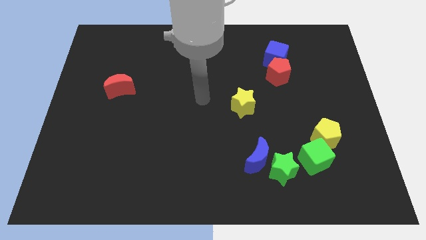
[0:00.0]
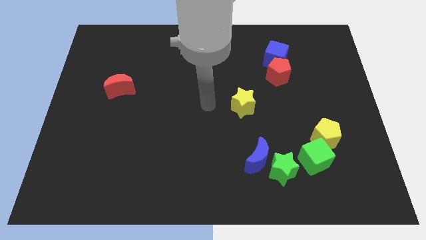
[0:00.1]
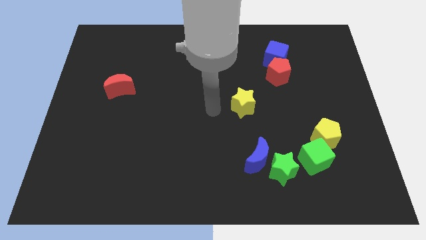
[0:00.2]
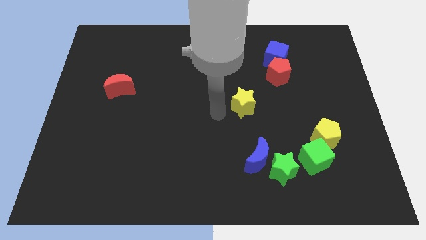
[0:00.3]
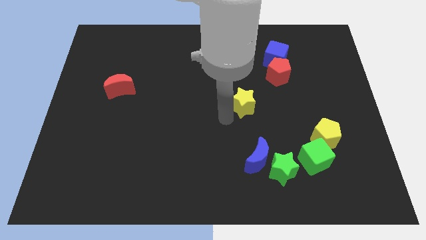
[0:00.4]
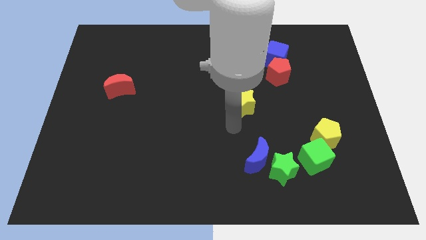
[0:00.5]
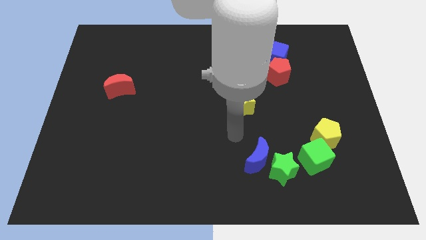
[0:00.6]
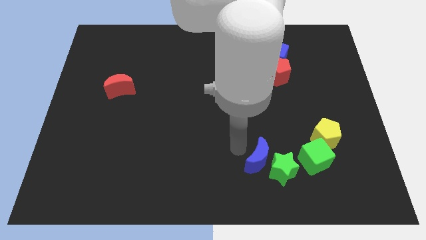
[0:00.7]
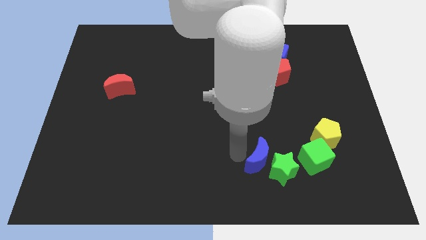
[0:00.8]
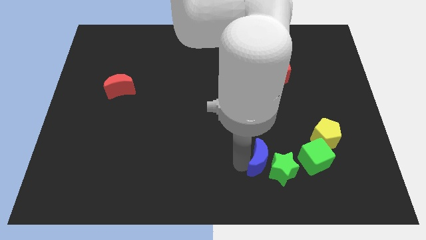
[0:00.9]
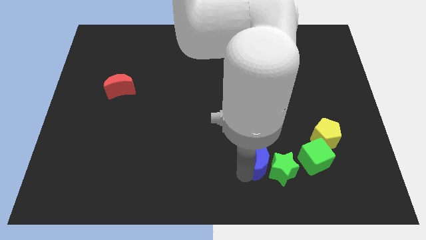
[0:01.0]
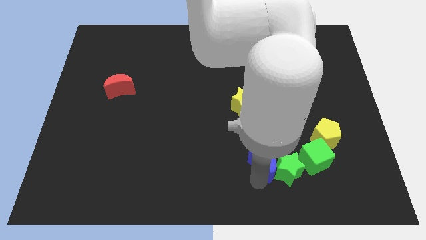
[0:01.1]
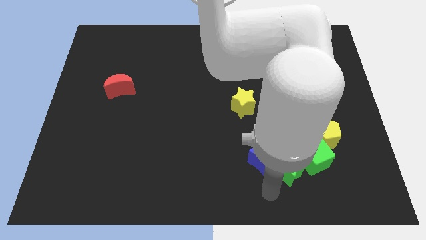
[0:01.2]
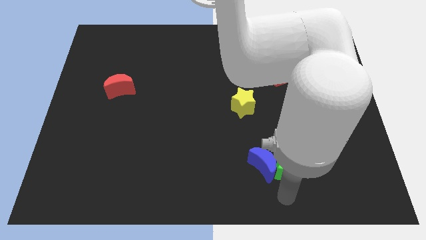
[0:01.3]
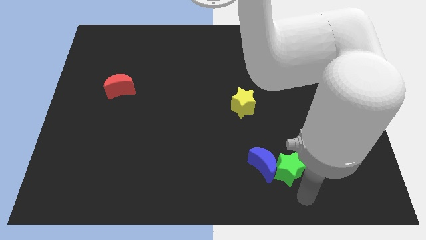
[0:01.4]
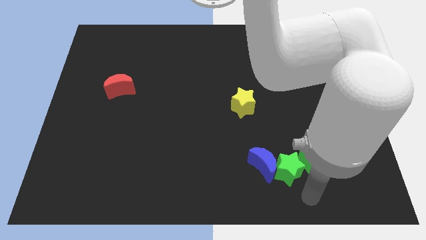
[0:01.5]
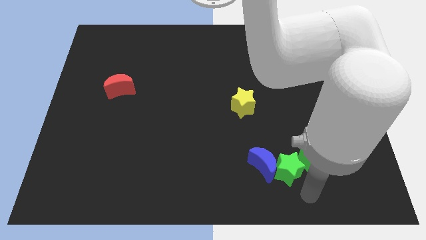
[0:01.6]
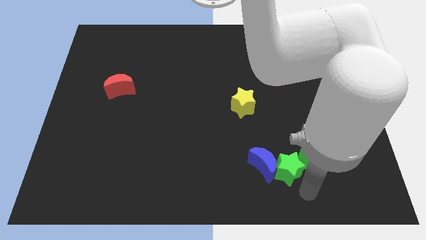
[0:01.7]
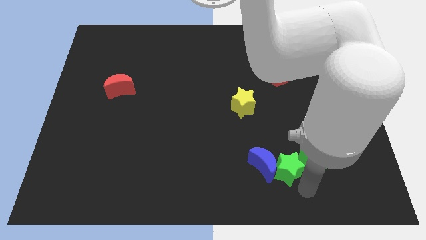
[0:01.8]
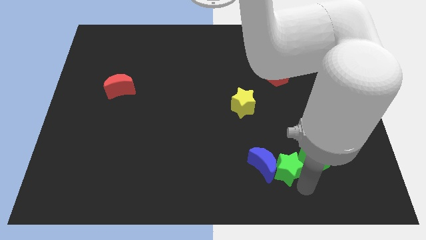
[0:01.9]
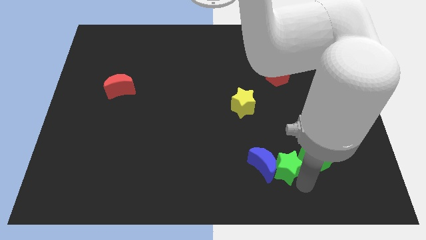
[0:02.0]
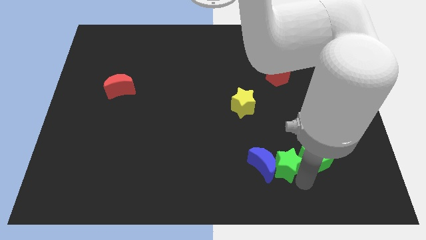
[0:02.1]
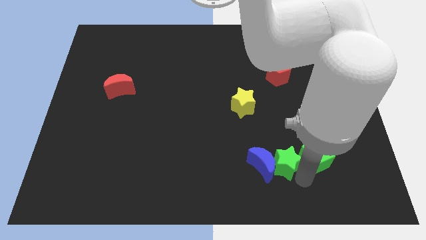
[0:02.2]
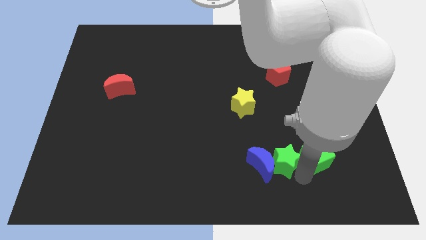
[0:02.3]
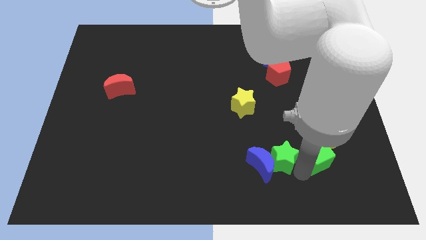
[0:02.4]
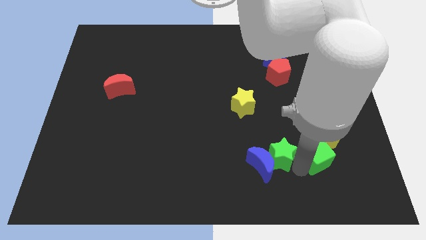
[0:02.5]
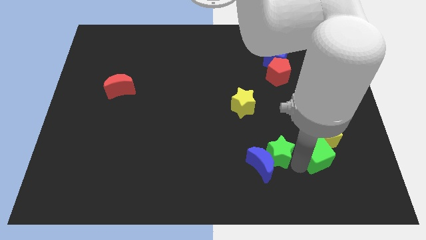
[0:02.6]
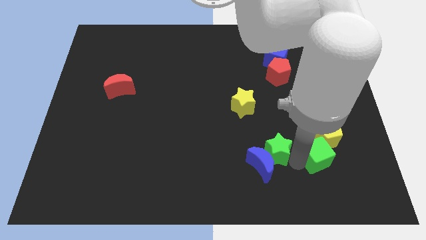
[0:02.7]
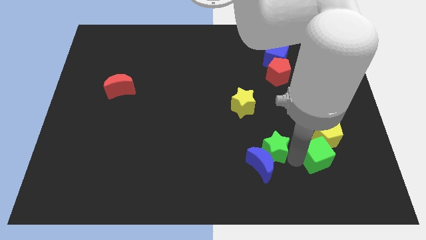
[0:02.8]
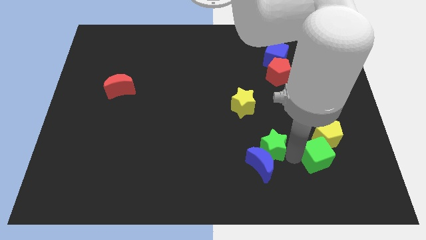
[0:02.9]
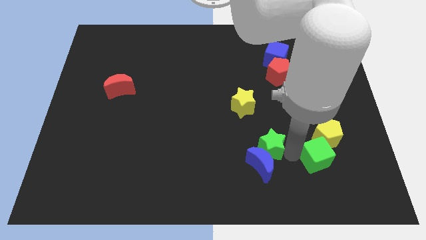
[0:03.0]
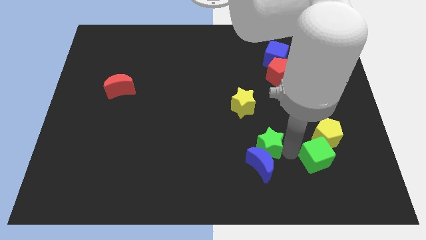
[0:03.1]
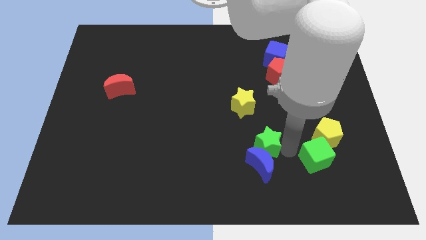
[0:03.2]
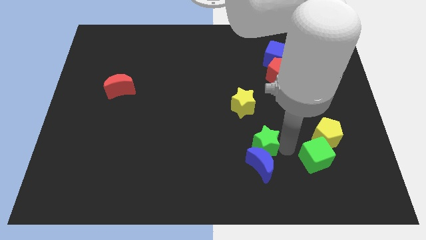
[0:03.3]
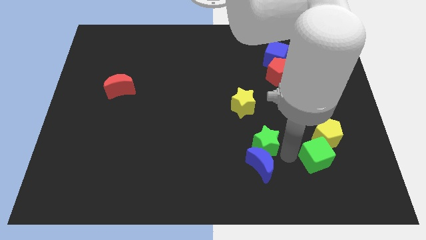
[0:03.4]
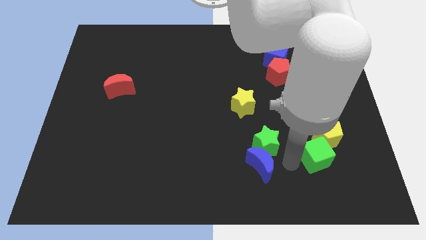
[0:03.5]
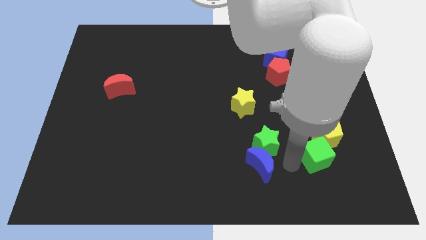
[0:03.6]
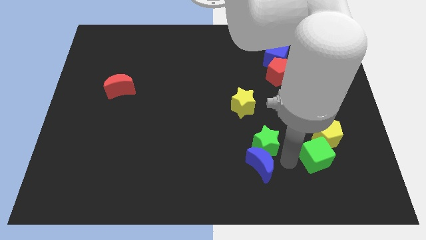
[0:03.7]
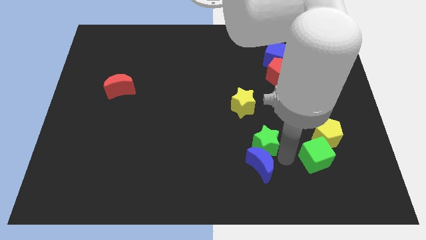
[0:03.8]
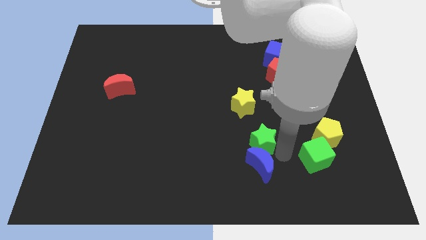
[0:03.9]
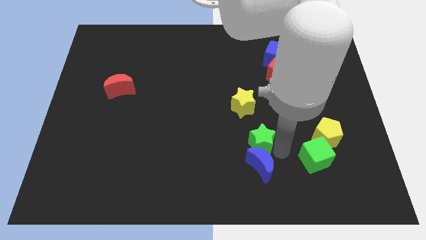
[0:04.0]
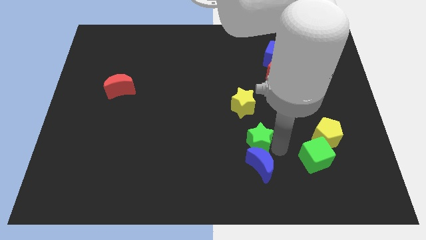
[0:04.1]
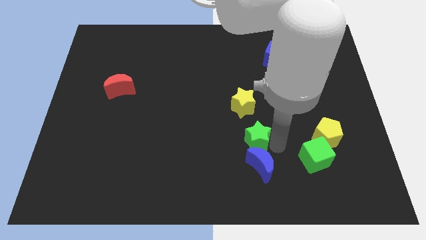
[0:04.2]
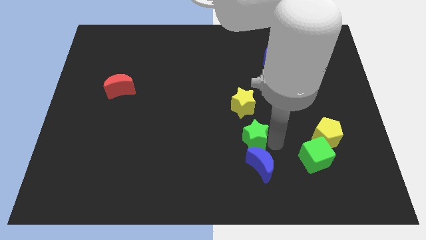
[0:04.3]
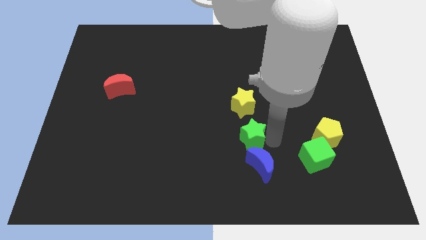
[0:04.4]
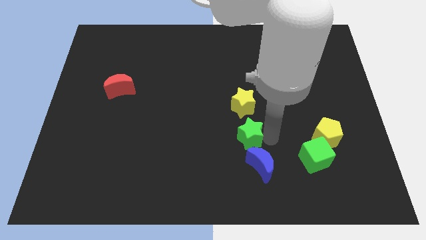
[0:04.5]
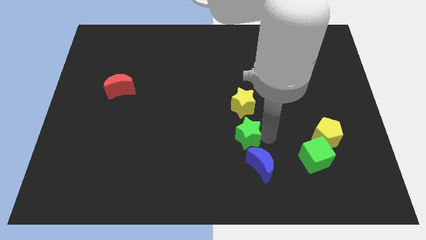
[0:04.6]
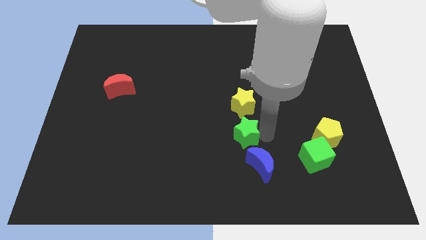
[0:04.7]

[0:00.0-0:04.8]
put the green star to the center

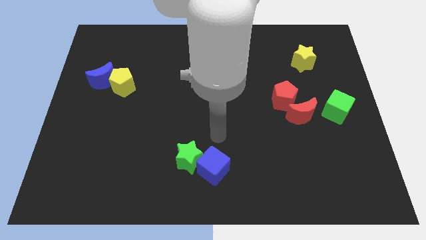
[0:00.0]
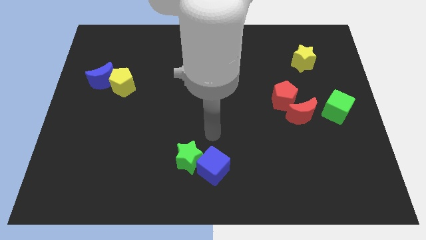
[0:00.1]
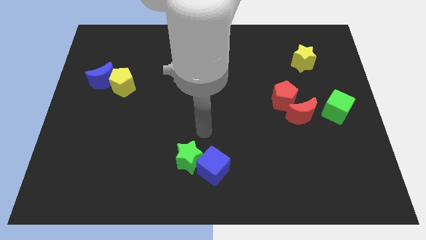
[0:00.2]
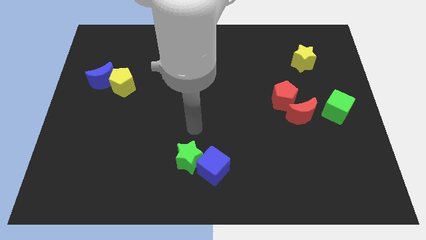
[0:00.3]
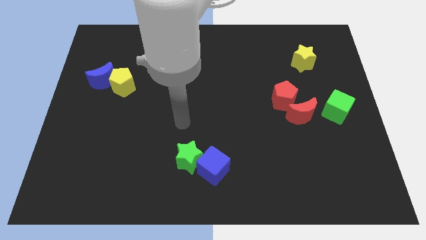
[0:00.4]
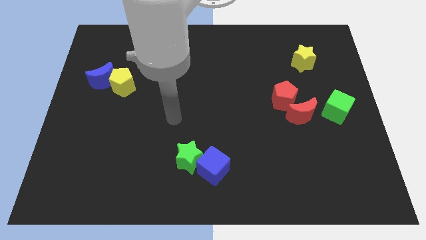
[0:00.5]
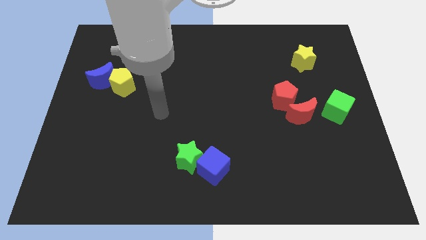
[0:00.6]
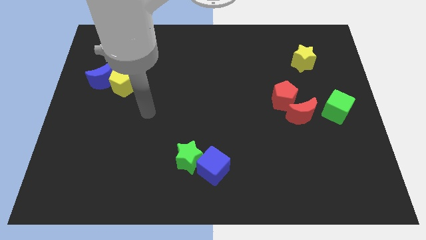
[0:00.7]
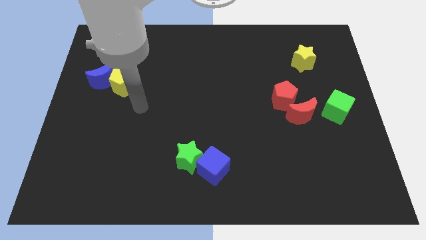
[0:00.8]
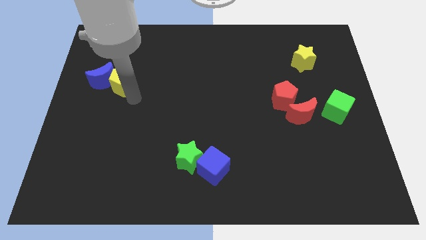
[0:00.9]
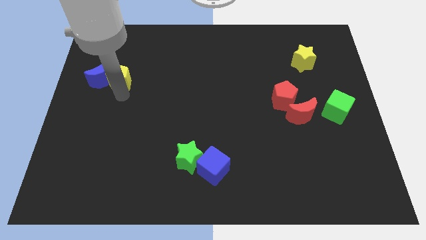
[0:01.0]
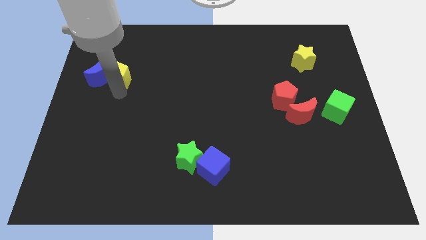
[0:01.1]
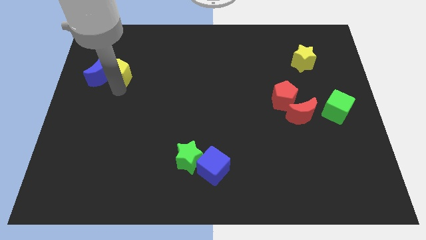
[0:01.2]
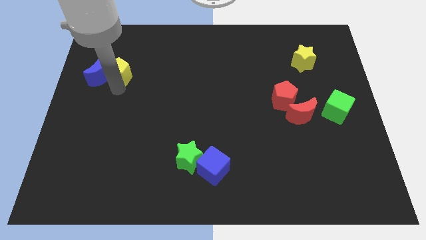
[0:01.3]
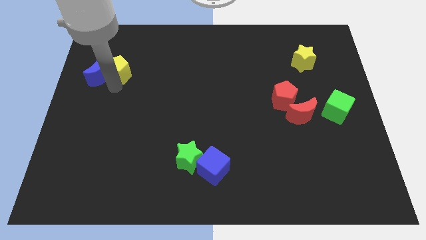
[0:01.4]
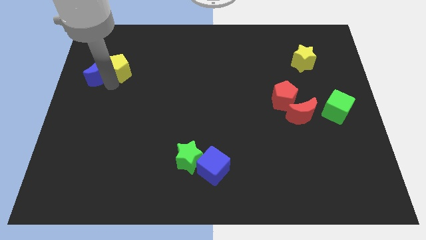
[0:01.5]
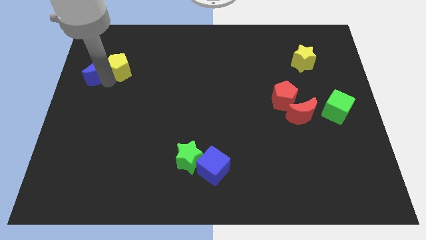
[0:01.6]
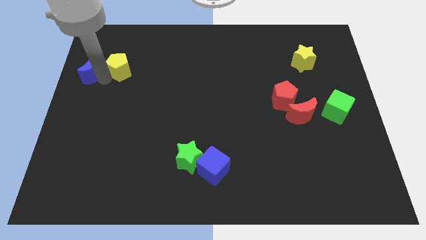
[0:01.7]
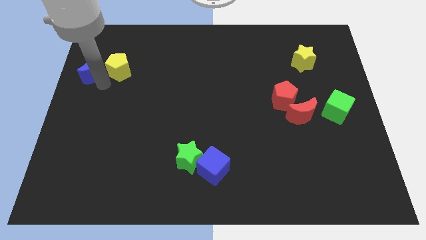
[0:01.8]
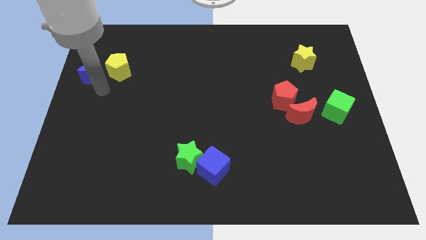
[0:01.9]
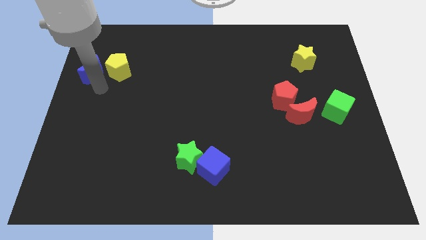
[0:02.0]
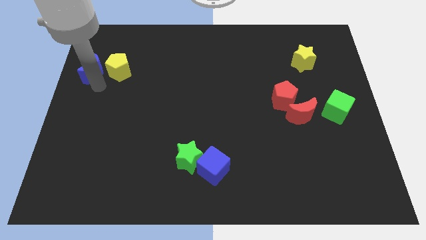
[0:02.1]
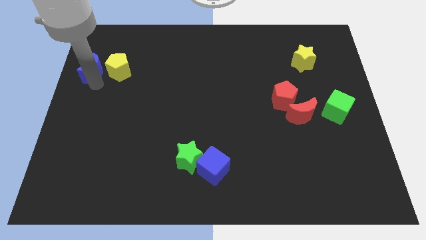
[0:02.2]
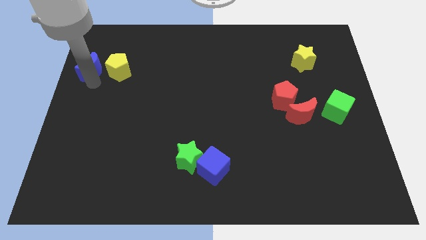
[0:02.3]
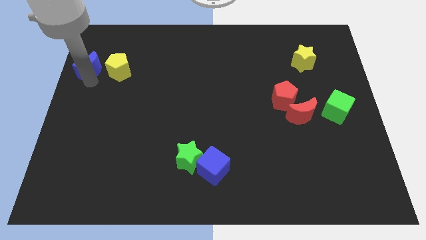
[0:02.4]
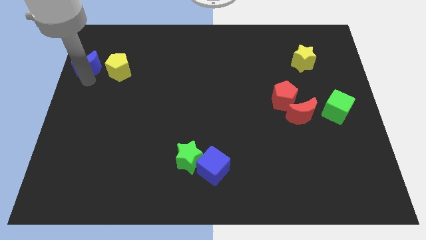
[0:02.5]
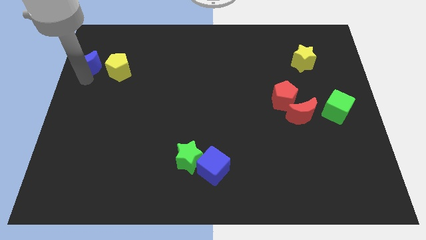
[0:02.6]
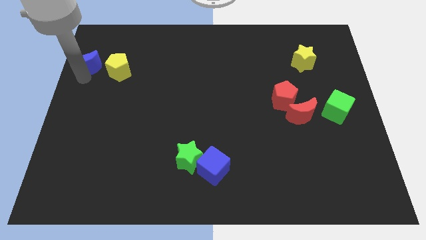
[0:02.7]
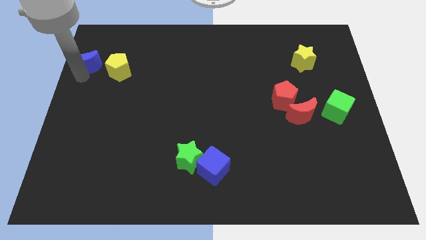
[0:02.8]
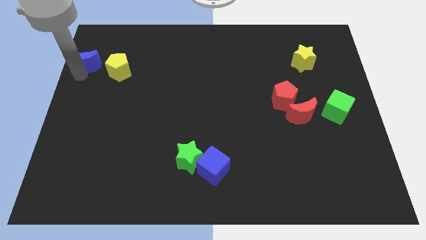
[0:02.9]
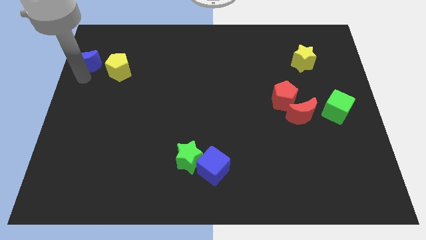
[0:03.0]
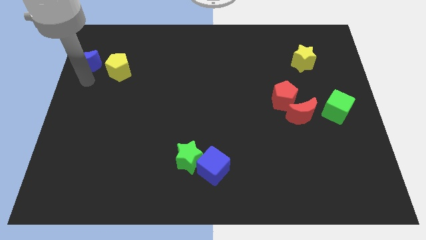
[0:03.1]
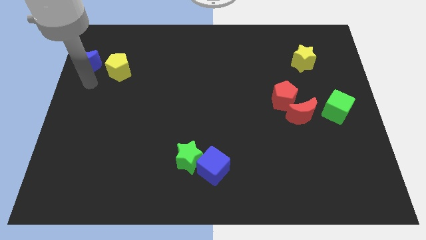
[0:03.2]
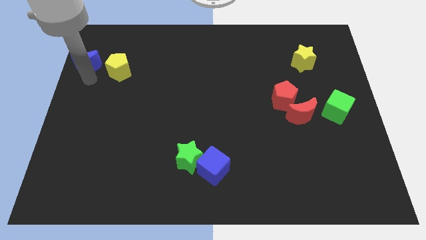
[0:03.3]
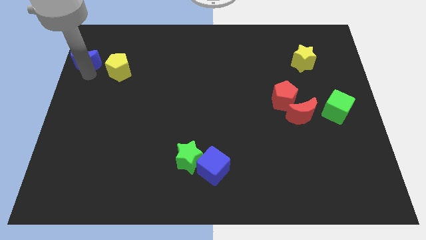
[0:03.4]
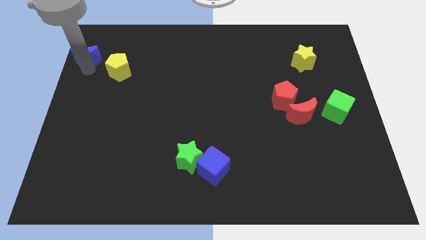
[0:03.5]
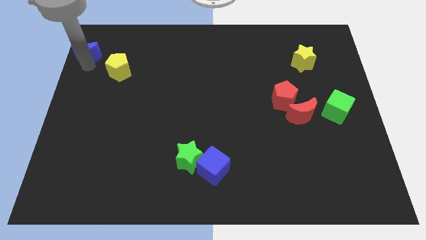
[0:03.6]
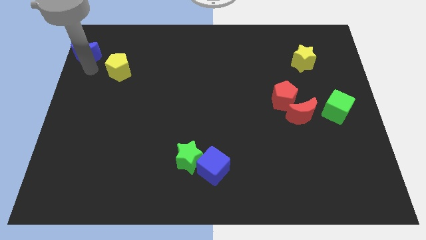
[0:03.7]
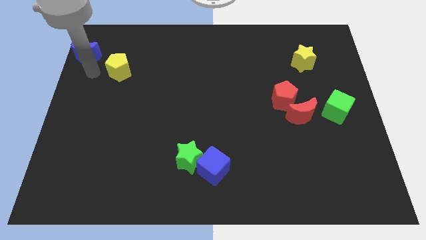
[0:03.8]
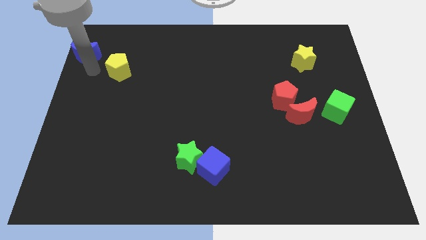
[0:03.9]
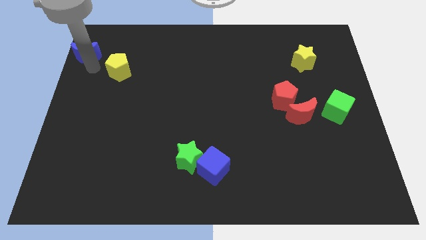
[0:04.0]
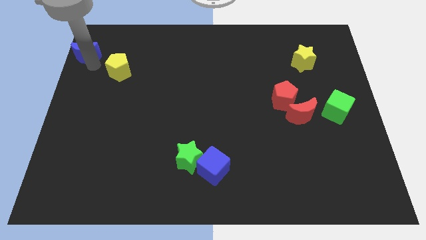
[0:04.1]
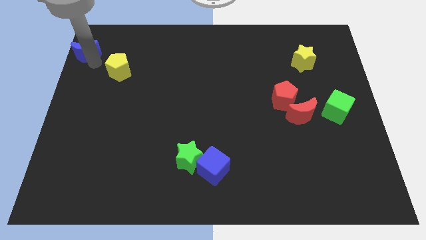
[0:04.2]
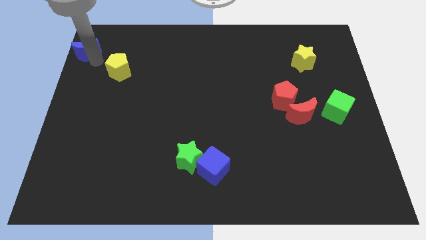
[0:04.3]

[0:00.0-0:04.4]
move the blue moon to the top left
